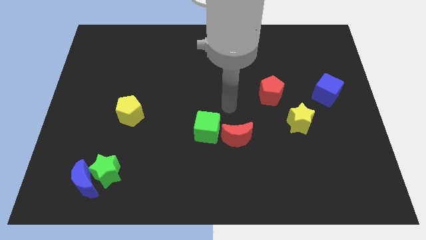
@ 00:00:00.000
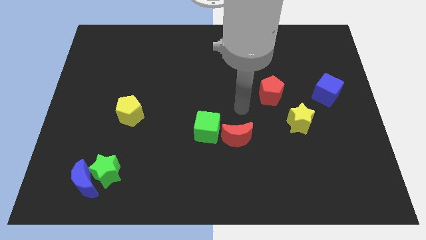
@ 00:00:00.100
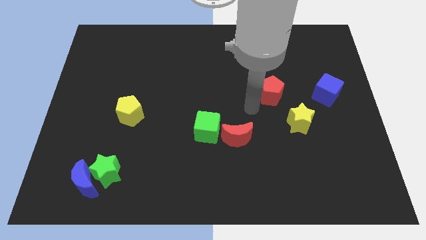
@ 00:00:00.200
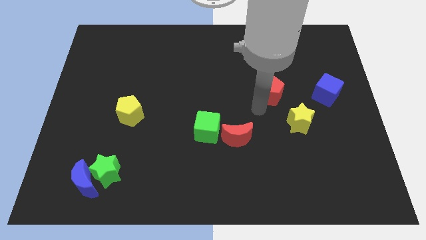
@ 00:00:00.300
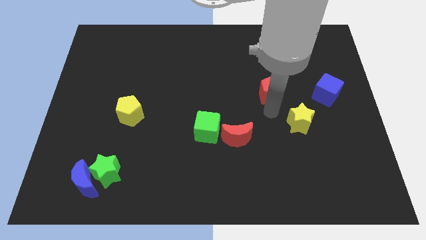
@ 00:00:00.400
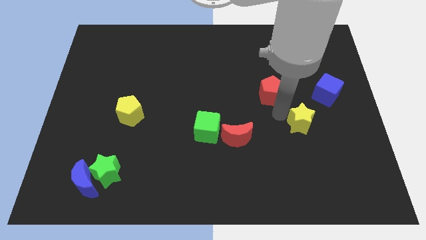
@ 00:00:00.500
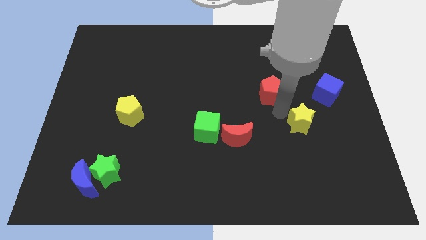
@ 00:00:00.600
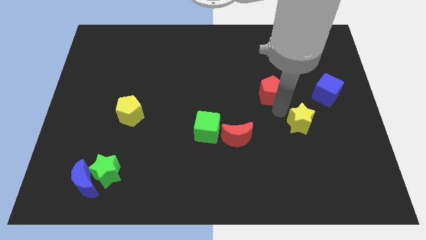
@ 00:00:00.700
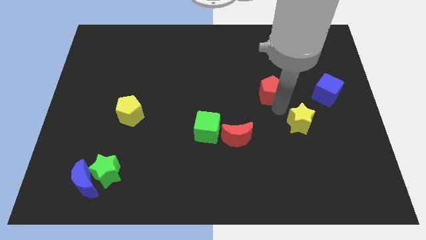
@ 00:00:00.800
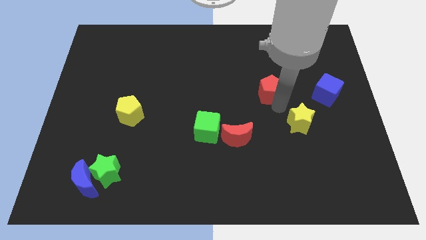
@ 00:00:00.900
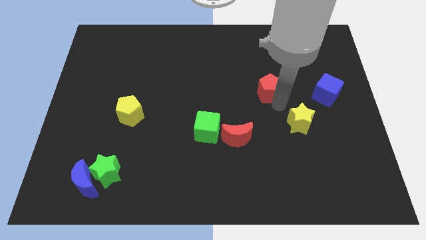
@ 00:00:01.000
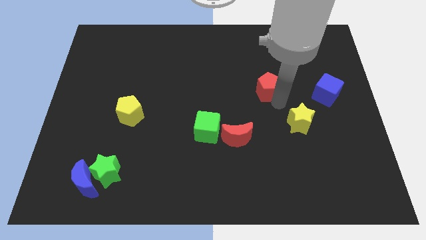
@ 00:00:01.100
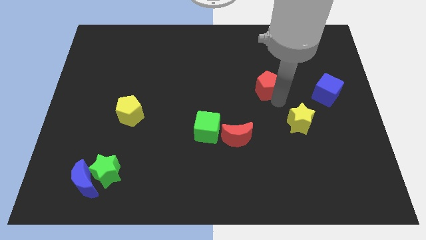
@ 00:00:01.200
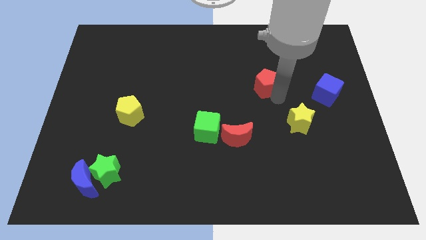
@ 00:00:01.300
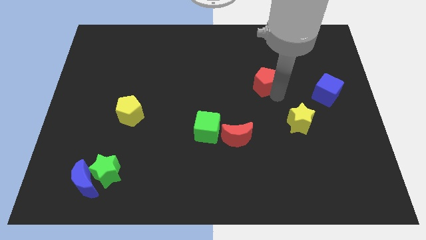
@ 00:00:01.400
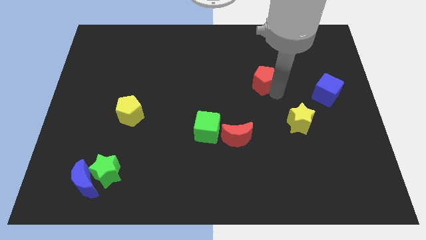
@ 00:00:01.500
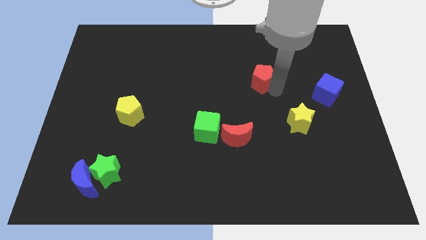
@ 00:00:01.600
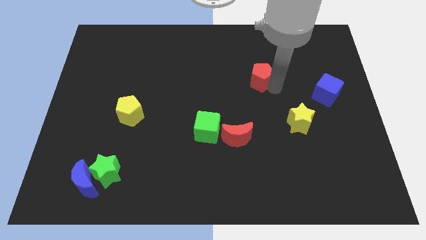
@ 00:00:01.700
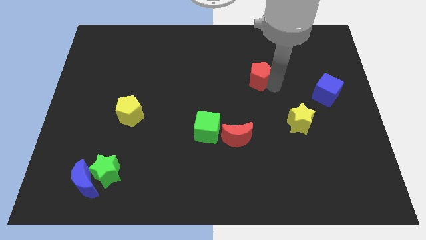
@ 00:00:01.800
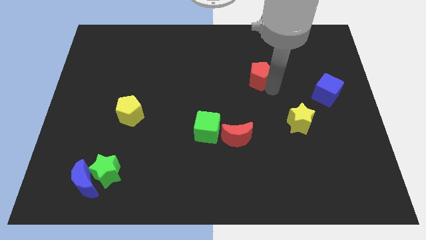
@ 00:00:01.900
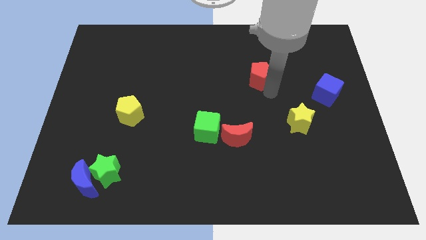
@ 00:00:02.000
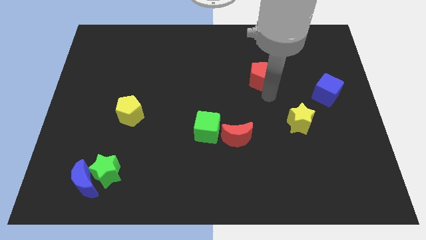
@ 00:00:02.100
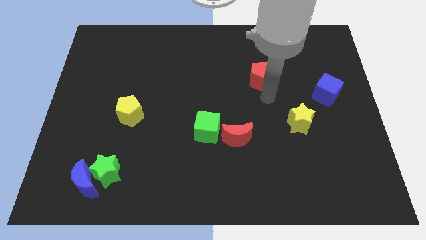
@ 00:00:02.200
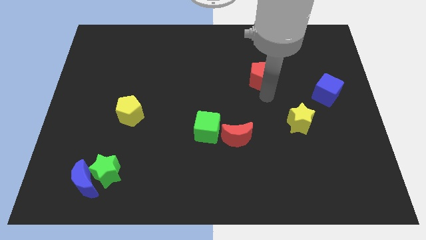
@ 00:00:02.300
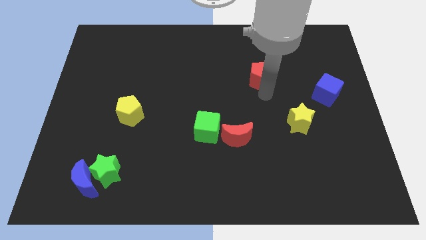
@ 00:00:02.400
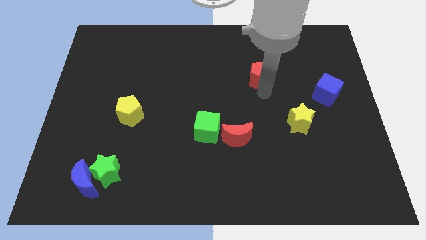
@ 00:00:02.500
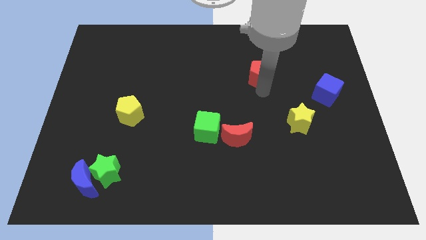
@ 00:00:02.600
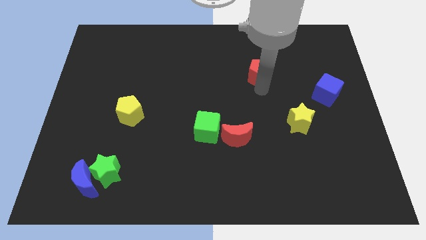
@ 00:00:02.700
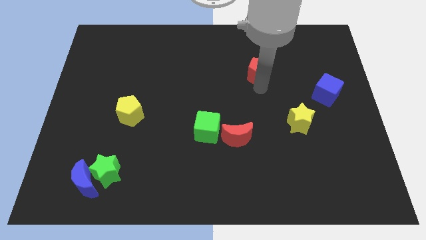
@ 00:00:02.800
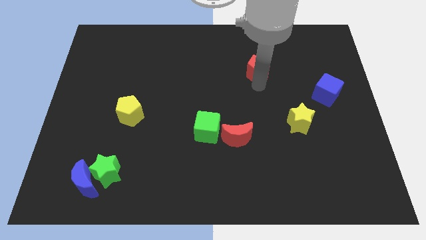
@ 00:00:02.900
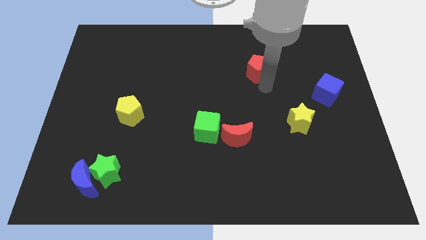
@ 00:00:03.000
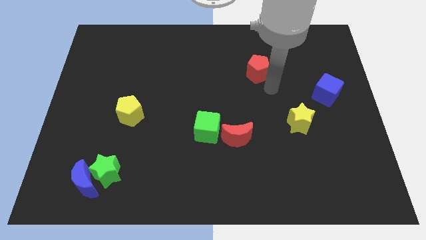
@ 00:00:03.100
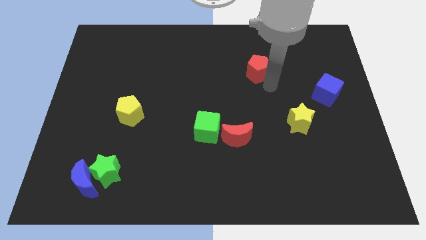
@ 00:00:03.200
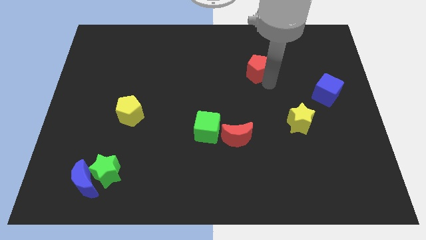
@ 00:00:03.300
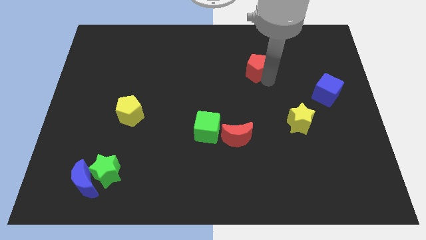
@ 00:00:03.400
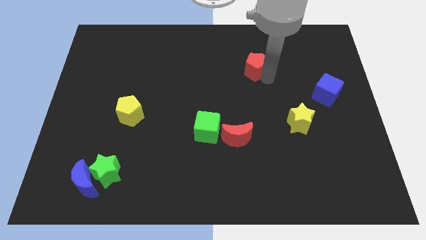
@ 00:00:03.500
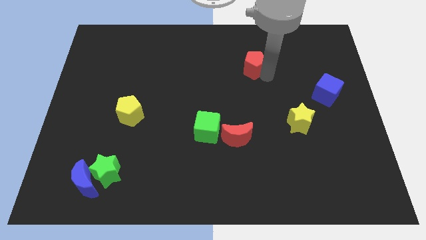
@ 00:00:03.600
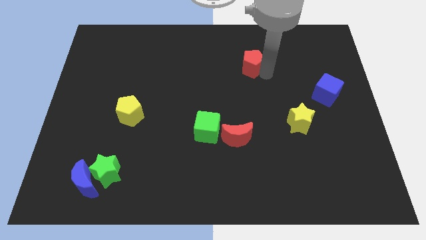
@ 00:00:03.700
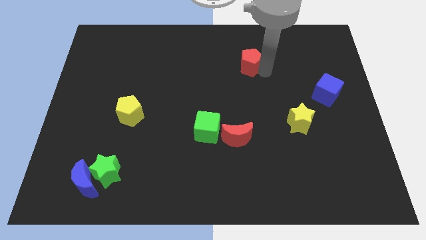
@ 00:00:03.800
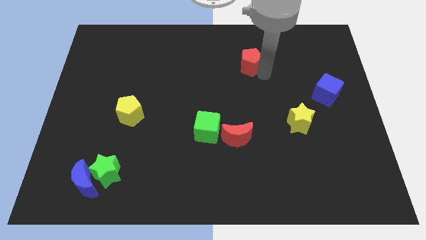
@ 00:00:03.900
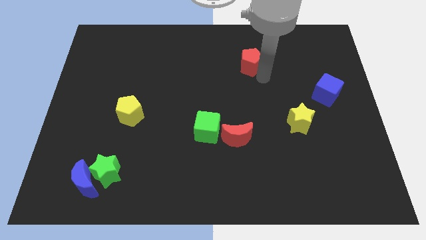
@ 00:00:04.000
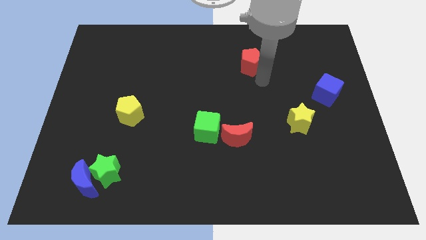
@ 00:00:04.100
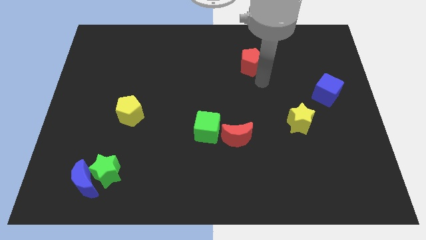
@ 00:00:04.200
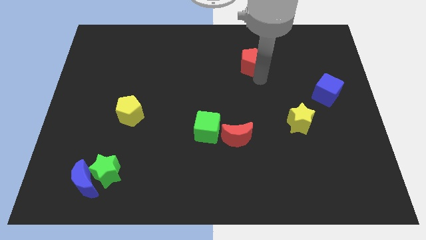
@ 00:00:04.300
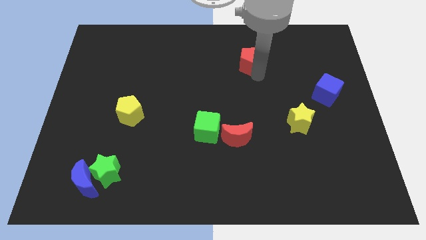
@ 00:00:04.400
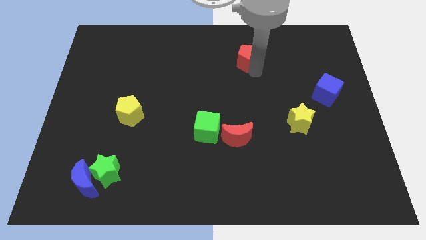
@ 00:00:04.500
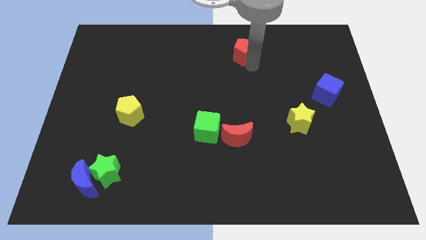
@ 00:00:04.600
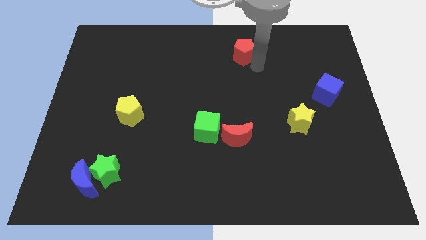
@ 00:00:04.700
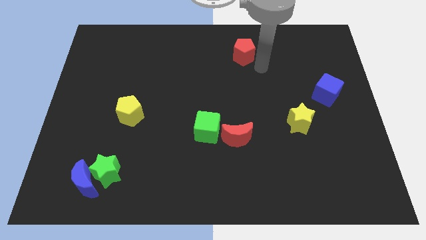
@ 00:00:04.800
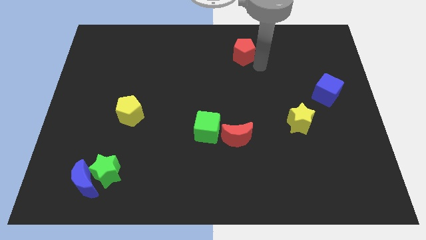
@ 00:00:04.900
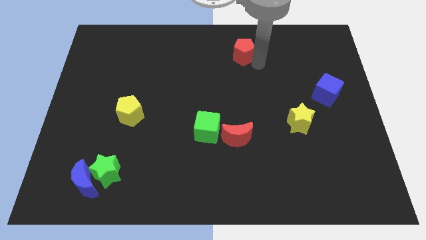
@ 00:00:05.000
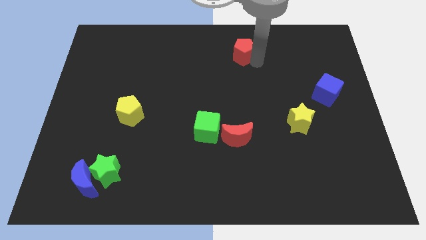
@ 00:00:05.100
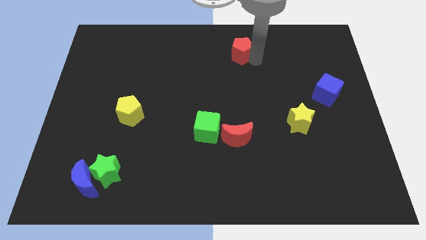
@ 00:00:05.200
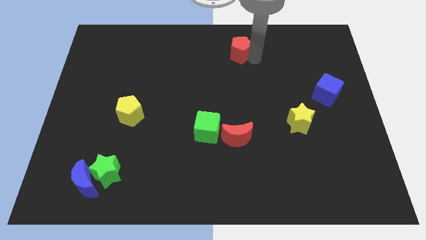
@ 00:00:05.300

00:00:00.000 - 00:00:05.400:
put the red pentagon to the towards your base

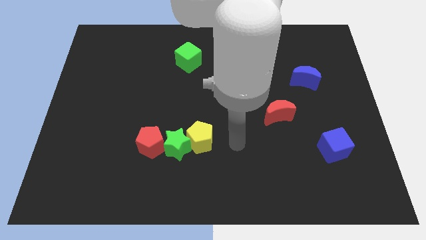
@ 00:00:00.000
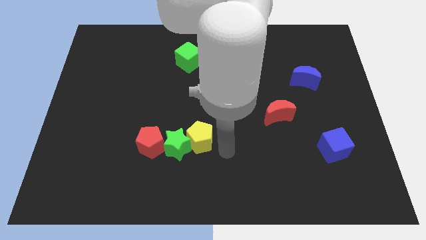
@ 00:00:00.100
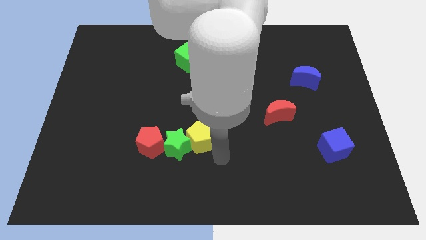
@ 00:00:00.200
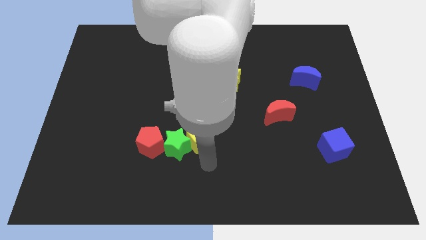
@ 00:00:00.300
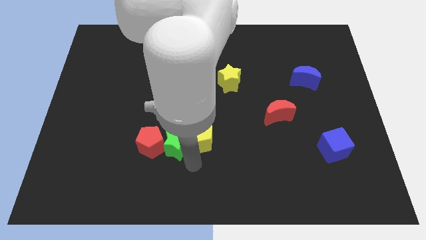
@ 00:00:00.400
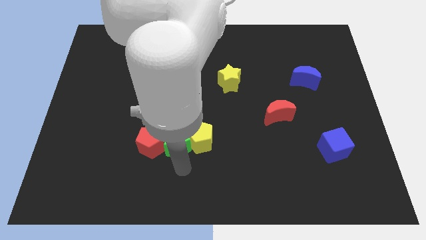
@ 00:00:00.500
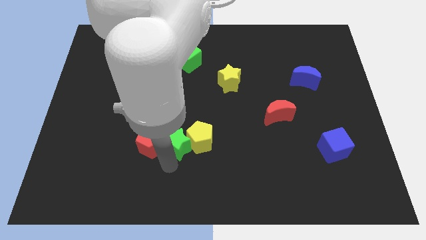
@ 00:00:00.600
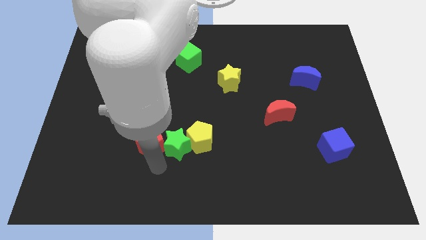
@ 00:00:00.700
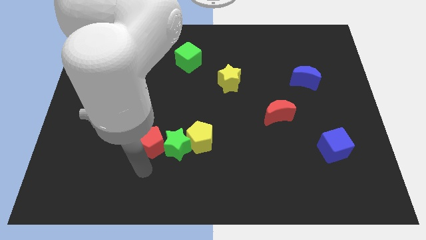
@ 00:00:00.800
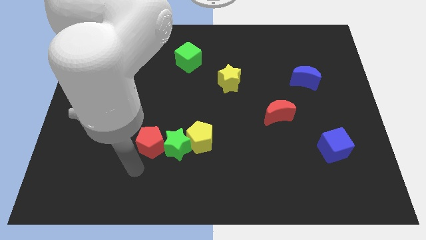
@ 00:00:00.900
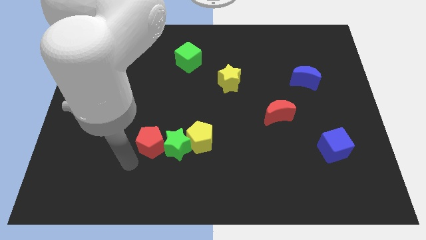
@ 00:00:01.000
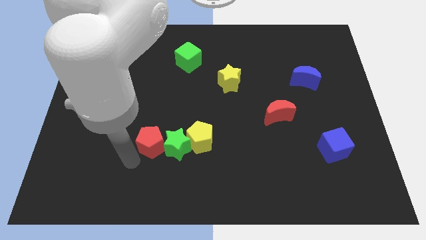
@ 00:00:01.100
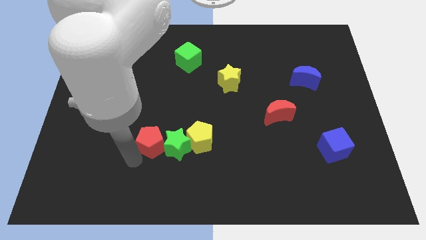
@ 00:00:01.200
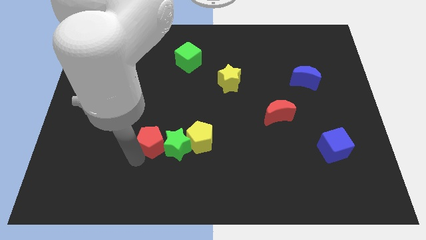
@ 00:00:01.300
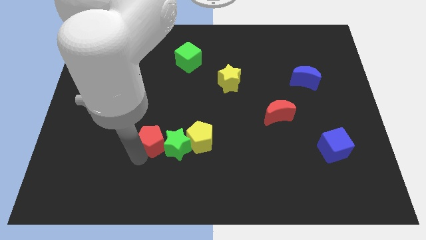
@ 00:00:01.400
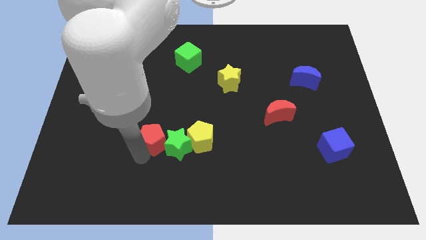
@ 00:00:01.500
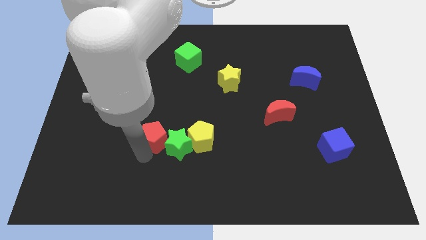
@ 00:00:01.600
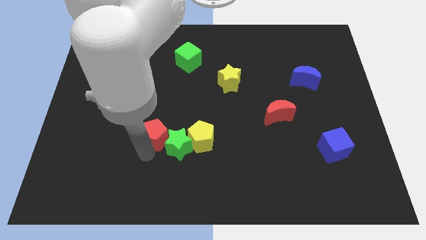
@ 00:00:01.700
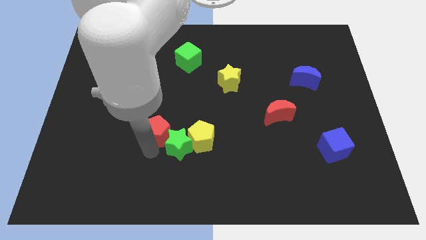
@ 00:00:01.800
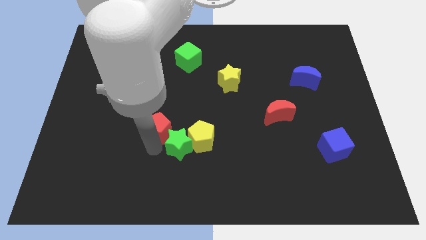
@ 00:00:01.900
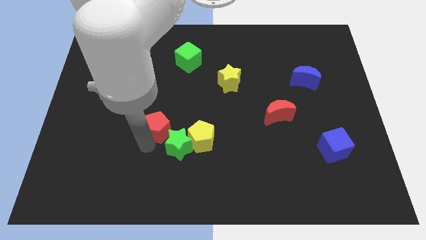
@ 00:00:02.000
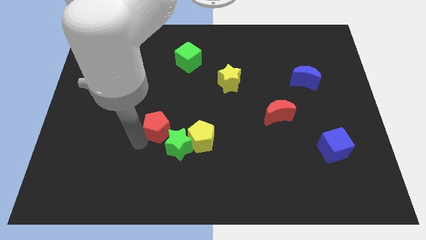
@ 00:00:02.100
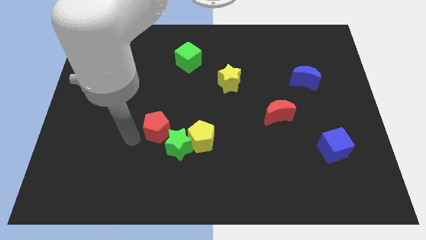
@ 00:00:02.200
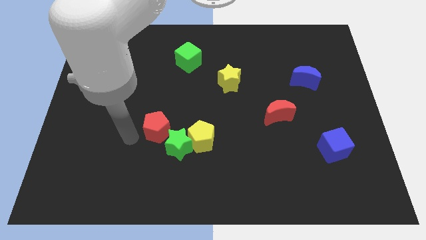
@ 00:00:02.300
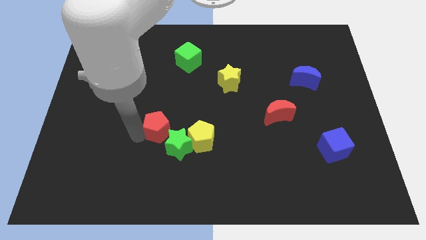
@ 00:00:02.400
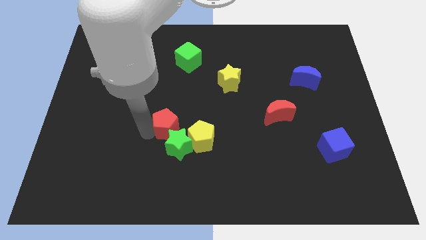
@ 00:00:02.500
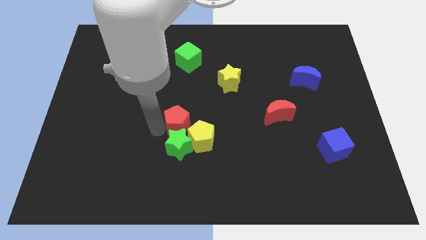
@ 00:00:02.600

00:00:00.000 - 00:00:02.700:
slide the red pentagon to the center of the board
